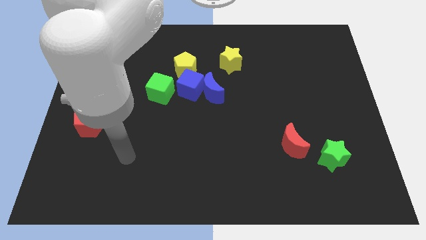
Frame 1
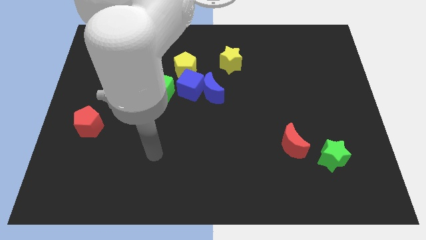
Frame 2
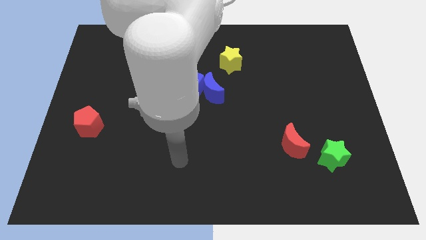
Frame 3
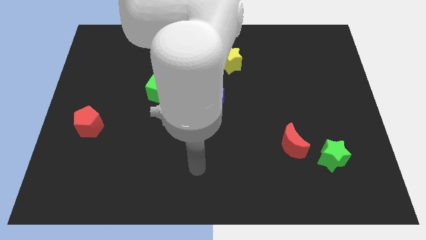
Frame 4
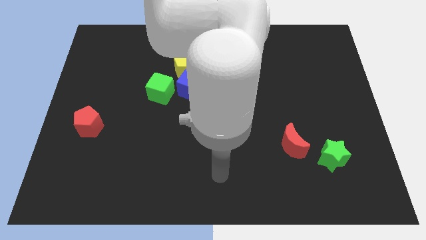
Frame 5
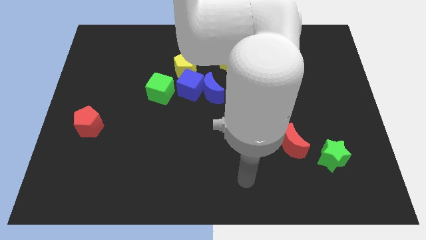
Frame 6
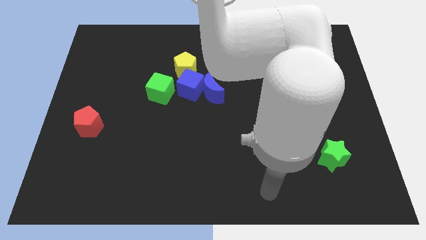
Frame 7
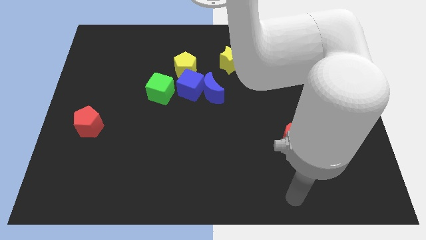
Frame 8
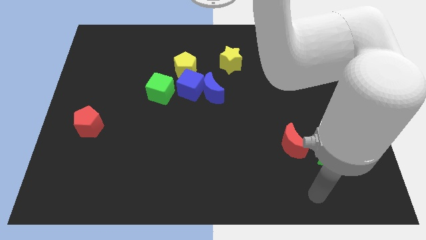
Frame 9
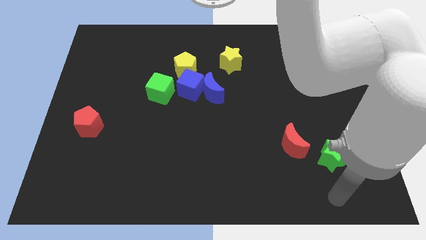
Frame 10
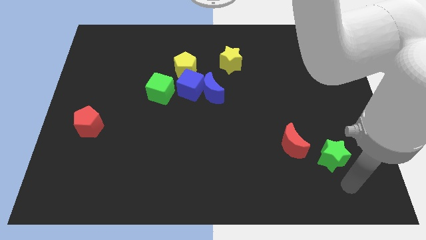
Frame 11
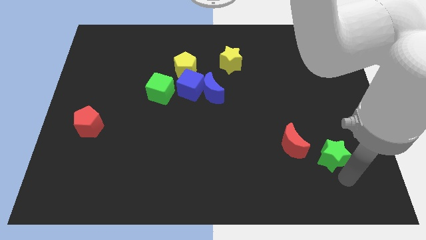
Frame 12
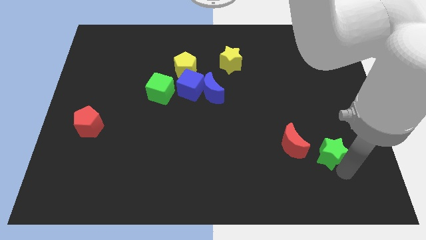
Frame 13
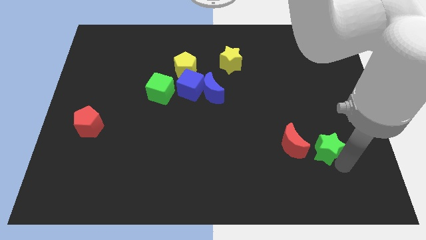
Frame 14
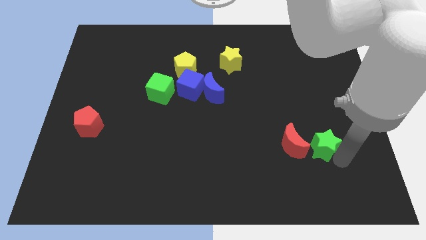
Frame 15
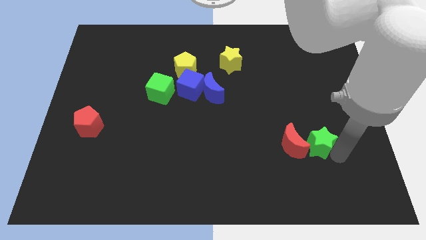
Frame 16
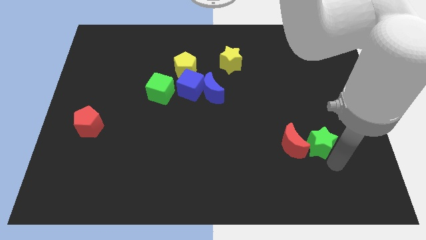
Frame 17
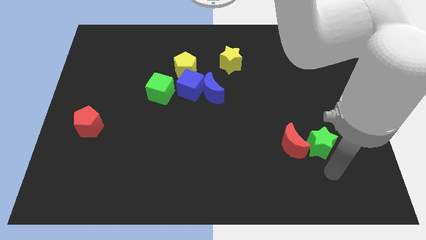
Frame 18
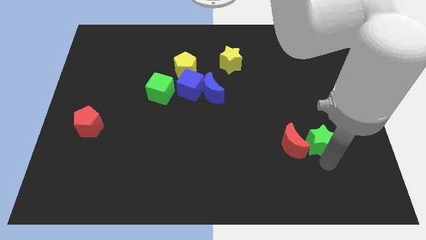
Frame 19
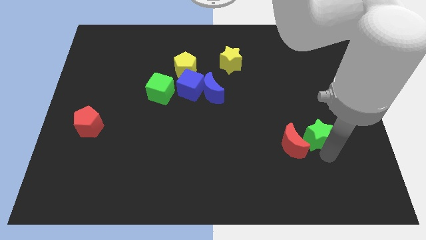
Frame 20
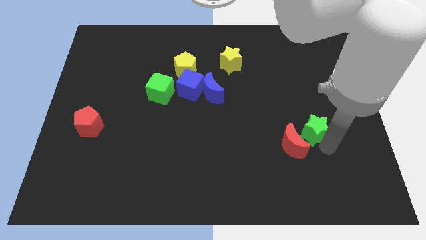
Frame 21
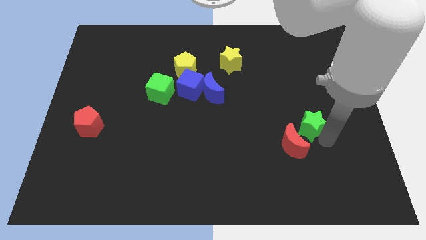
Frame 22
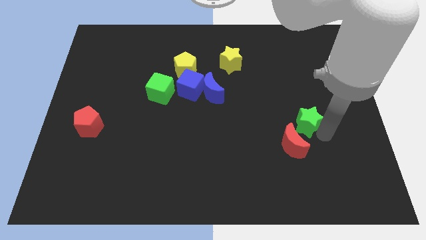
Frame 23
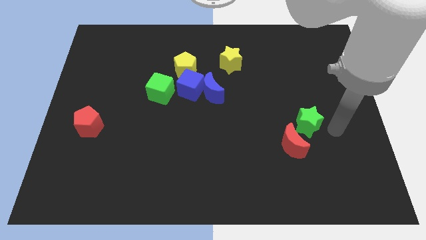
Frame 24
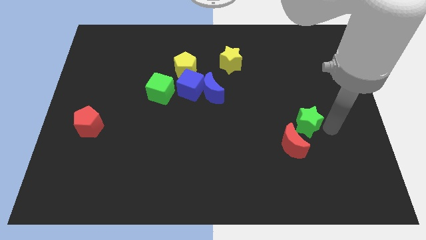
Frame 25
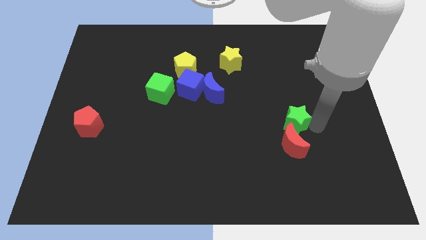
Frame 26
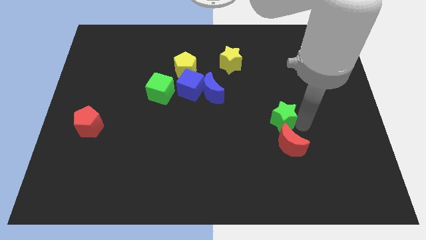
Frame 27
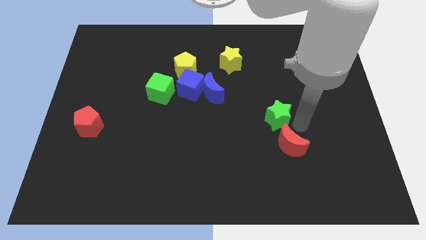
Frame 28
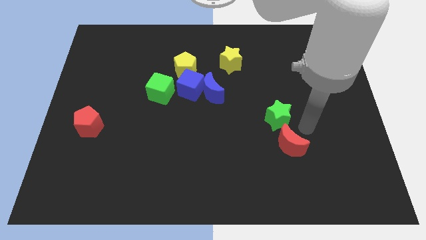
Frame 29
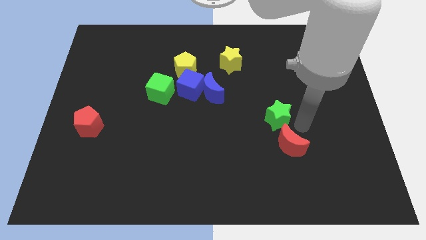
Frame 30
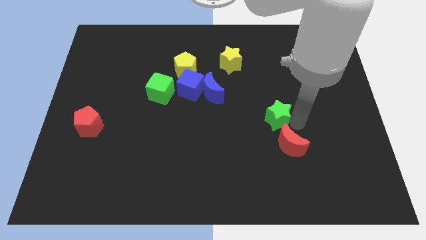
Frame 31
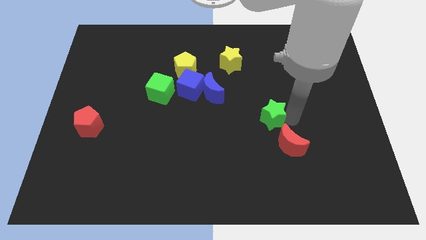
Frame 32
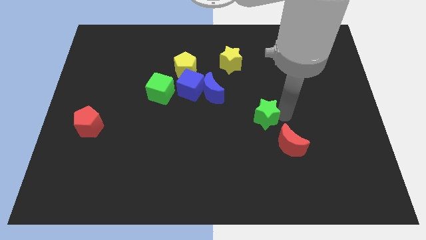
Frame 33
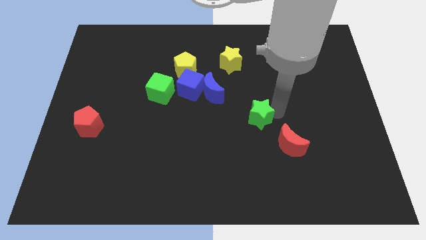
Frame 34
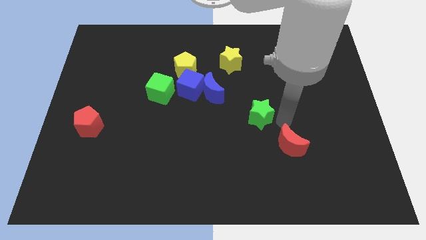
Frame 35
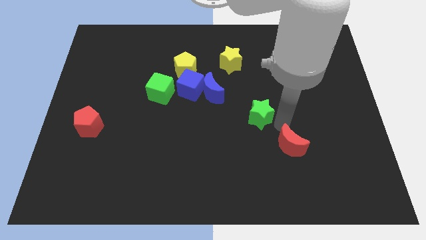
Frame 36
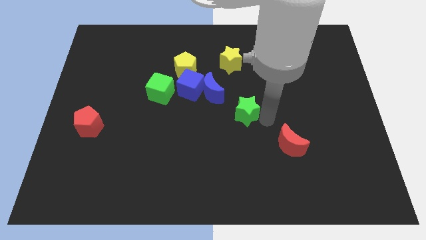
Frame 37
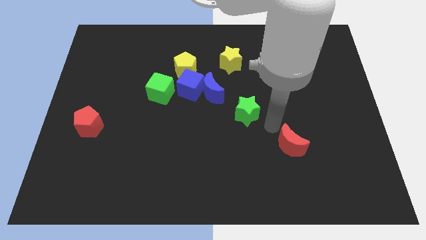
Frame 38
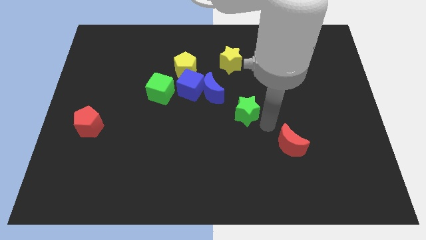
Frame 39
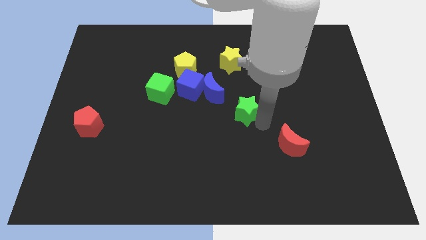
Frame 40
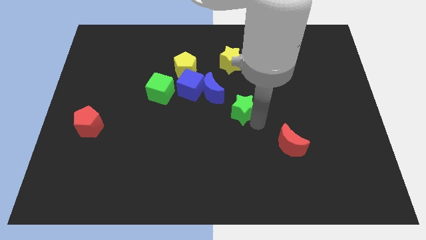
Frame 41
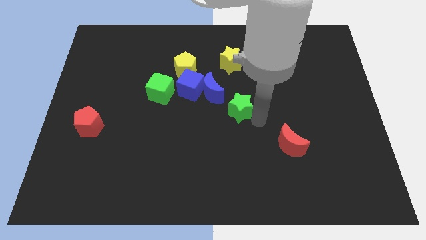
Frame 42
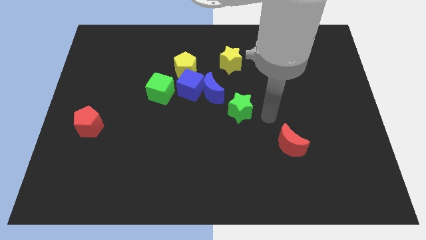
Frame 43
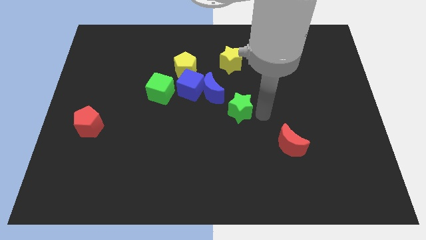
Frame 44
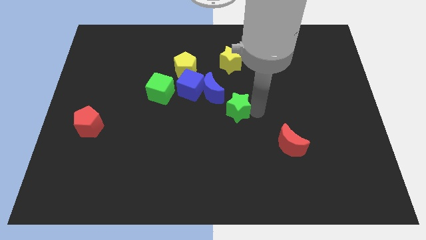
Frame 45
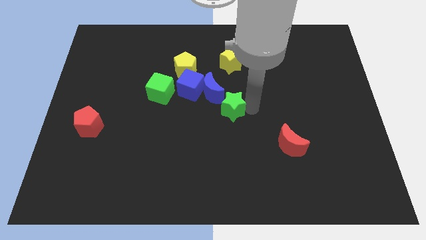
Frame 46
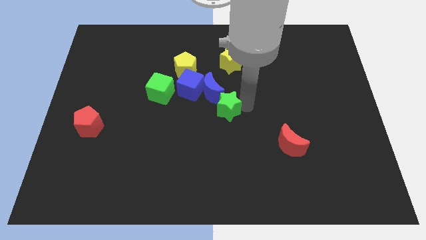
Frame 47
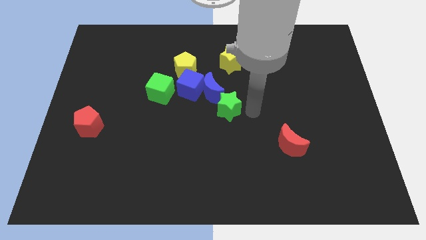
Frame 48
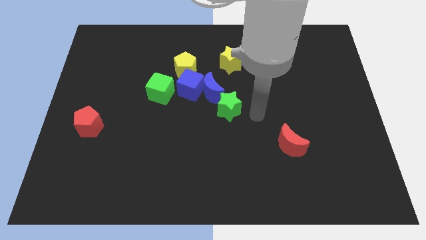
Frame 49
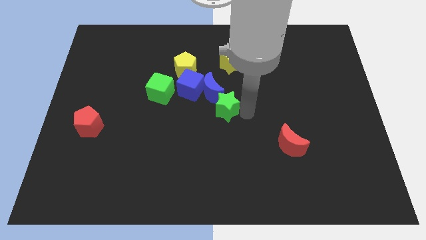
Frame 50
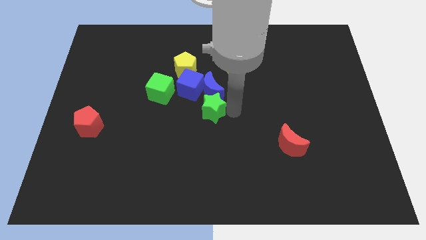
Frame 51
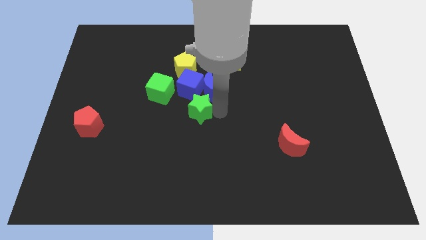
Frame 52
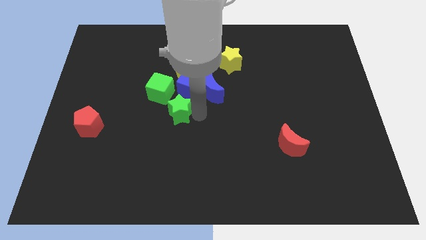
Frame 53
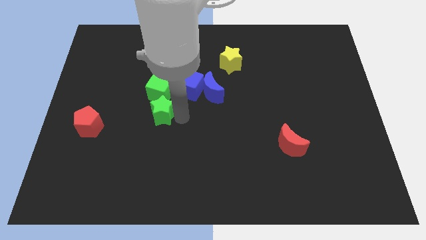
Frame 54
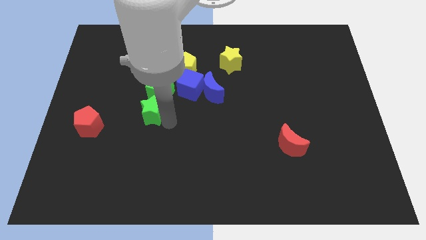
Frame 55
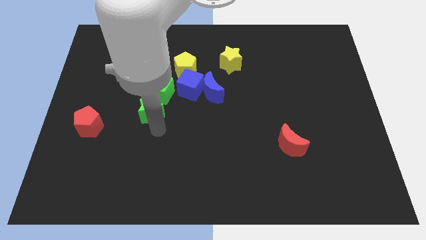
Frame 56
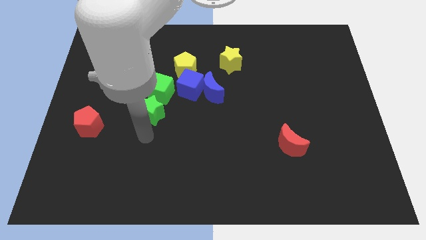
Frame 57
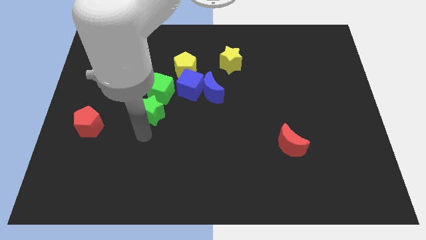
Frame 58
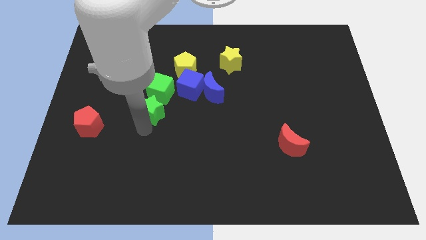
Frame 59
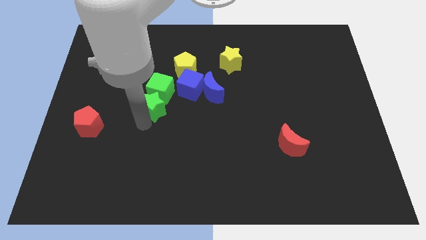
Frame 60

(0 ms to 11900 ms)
move the green star next to the green cube

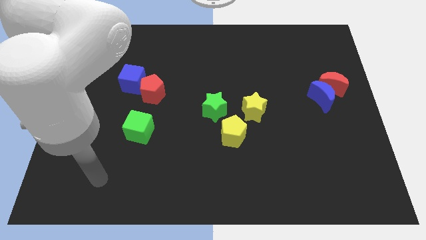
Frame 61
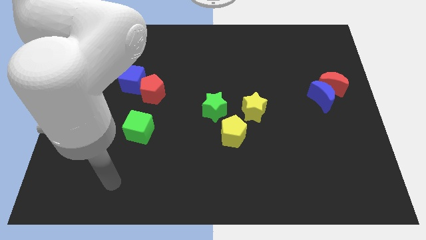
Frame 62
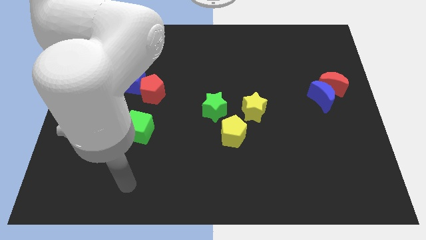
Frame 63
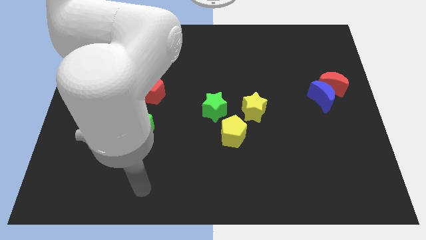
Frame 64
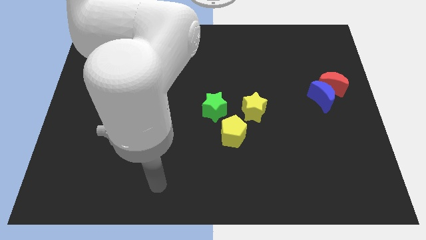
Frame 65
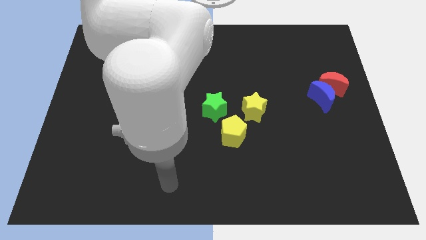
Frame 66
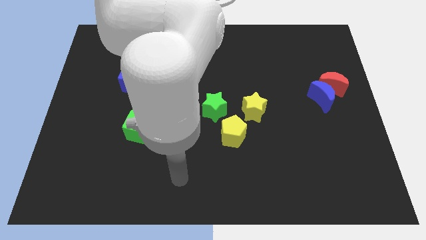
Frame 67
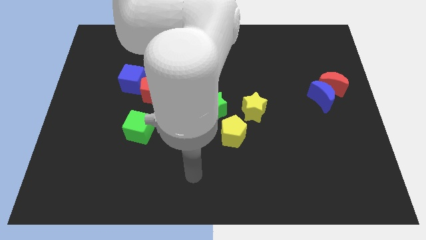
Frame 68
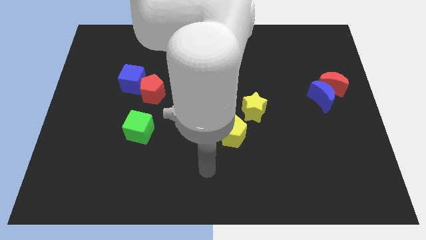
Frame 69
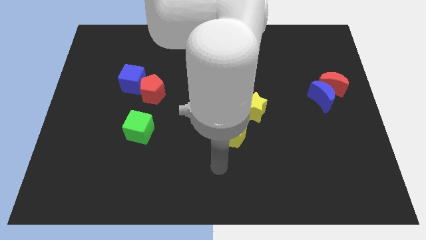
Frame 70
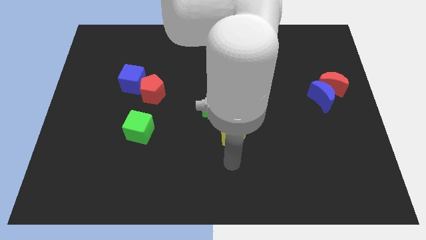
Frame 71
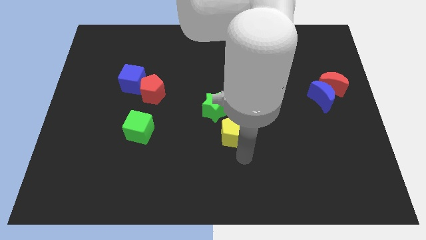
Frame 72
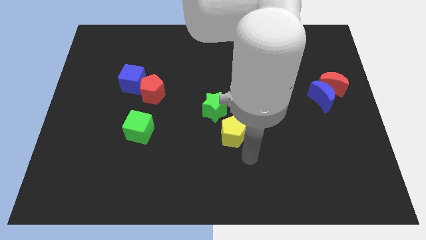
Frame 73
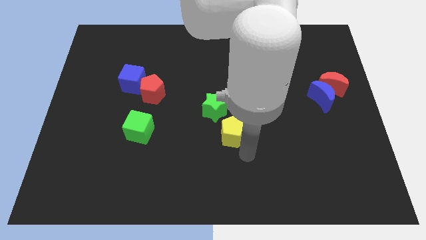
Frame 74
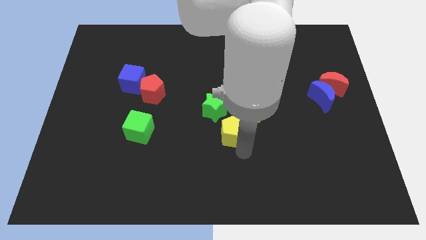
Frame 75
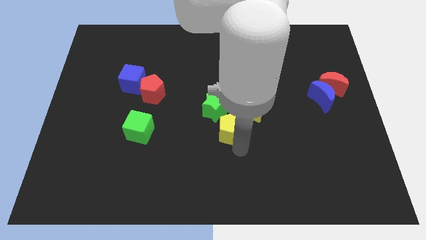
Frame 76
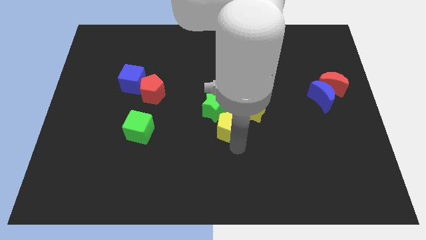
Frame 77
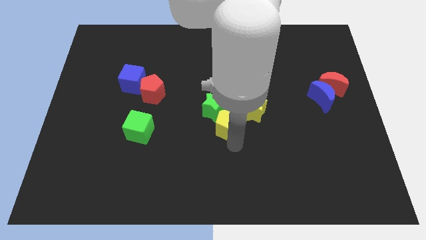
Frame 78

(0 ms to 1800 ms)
push the yellow pentagon to the green star
